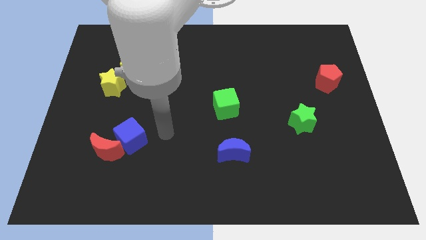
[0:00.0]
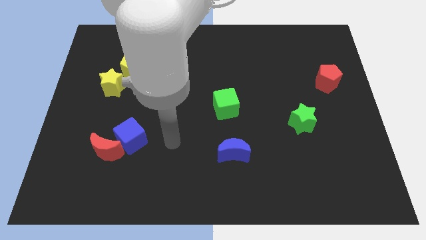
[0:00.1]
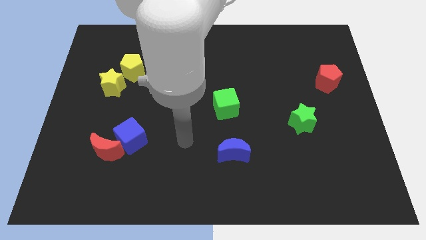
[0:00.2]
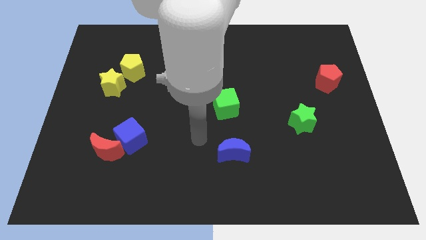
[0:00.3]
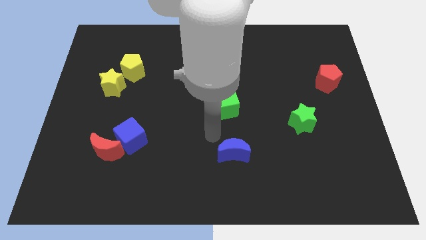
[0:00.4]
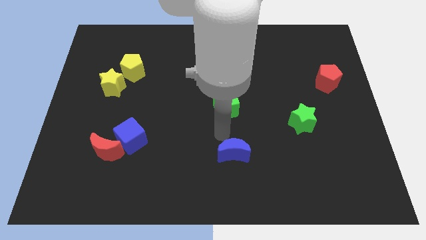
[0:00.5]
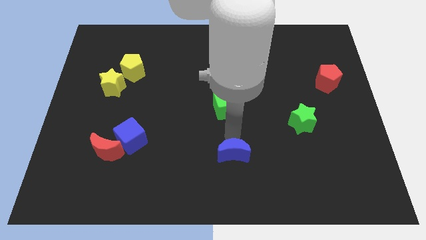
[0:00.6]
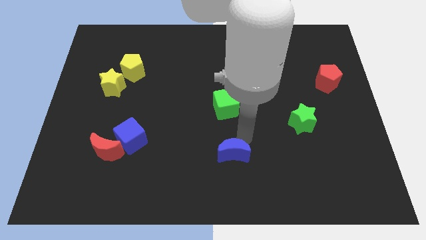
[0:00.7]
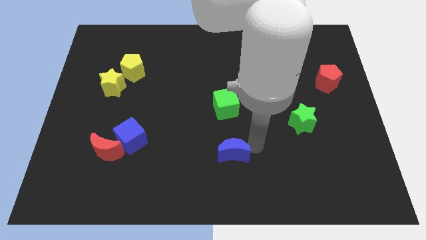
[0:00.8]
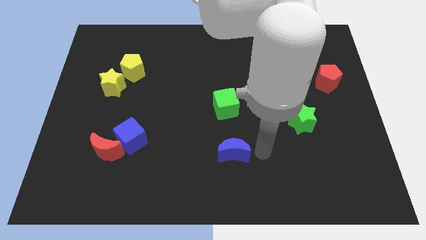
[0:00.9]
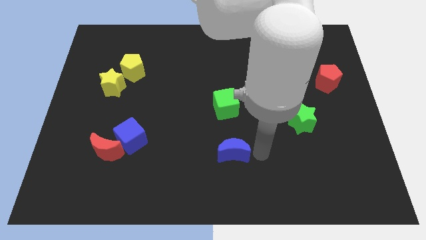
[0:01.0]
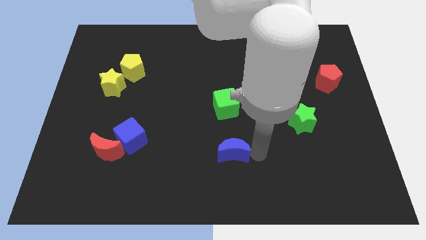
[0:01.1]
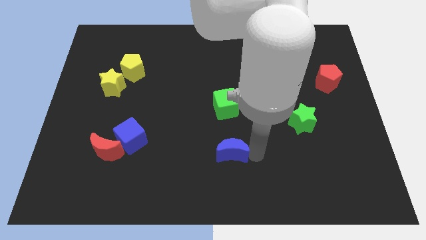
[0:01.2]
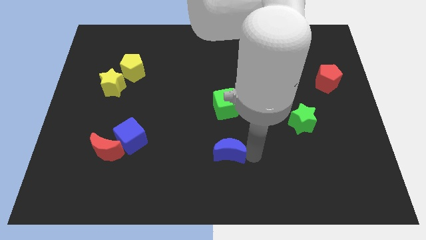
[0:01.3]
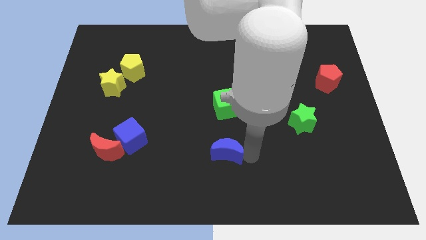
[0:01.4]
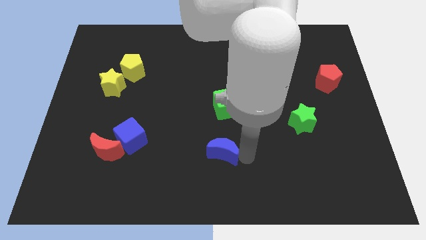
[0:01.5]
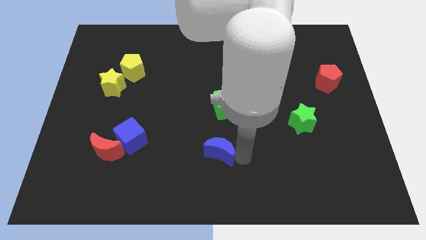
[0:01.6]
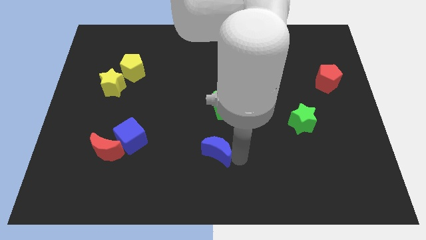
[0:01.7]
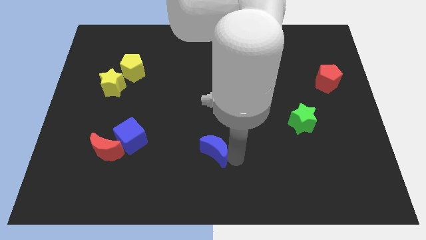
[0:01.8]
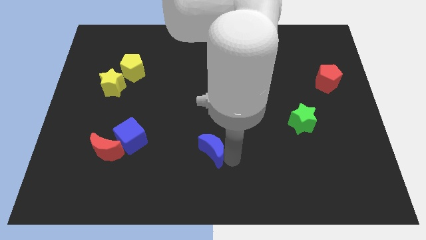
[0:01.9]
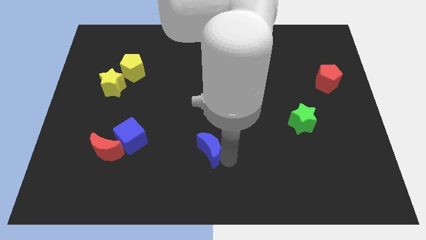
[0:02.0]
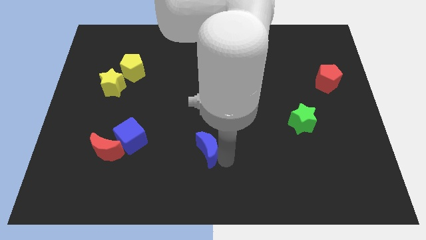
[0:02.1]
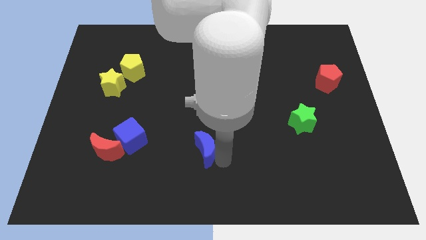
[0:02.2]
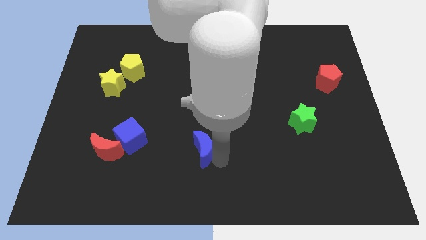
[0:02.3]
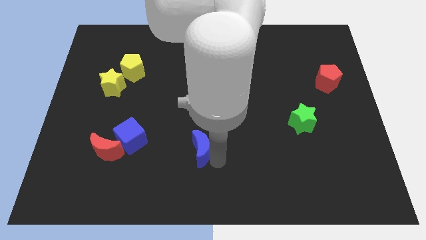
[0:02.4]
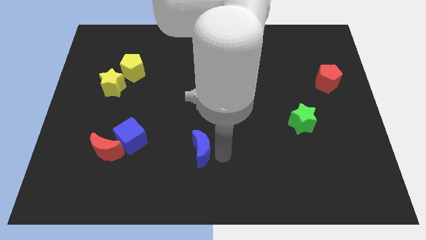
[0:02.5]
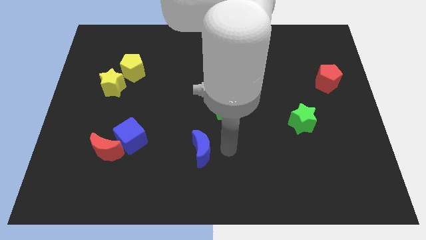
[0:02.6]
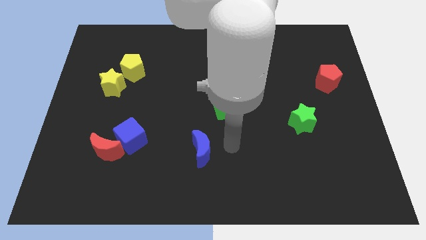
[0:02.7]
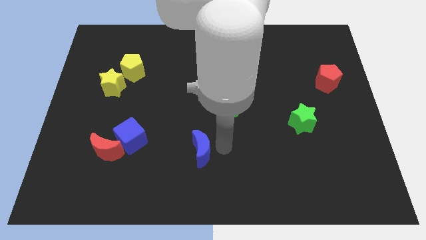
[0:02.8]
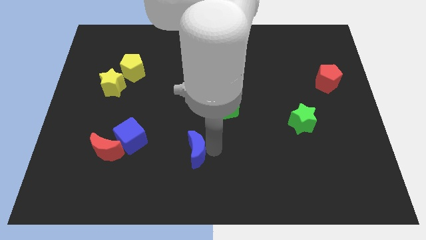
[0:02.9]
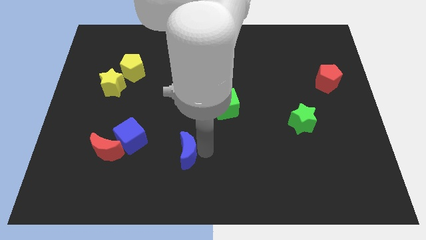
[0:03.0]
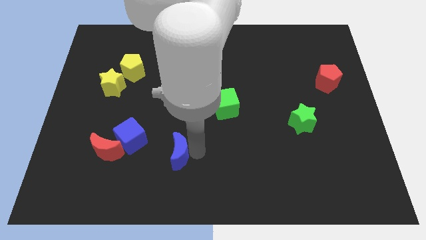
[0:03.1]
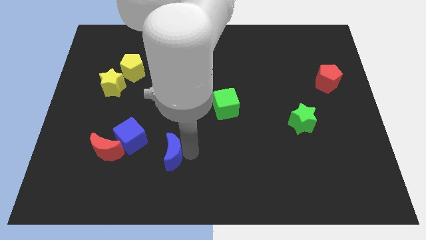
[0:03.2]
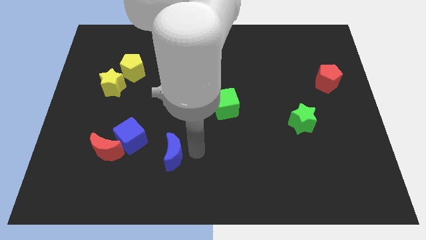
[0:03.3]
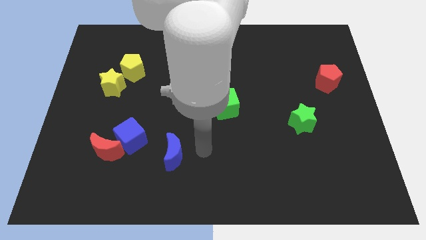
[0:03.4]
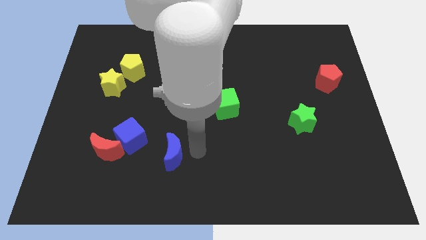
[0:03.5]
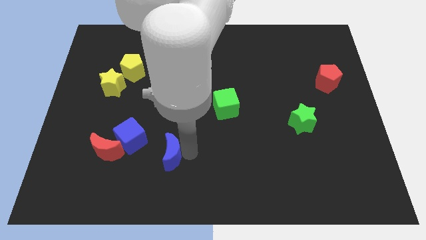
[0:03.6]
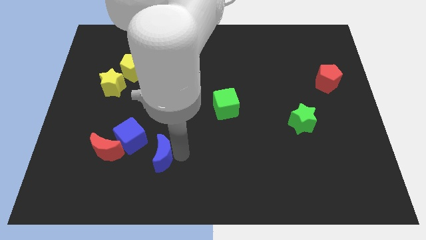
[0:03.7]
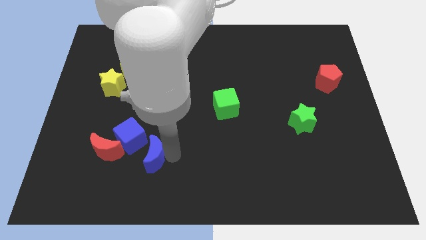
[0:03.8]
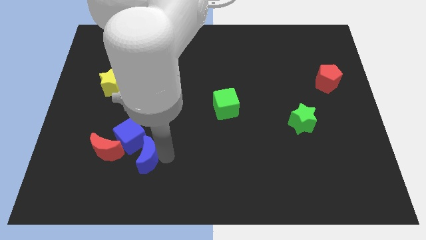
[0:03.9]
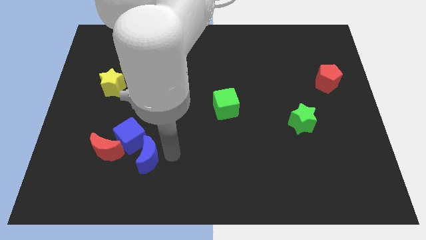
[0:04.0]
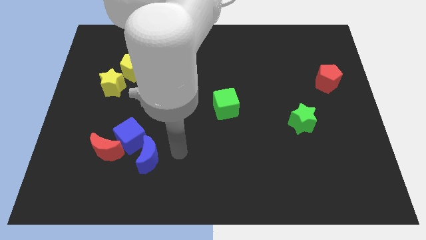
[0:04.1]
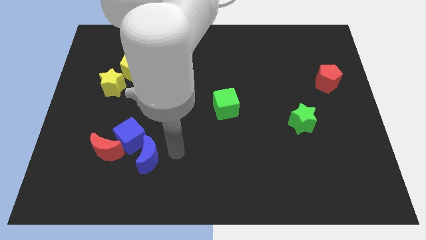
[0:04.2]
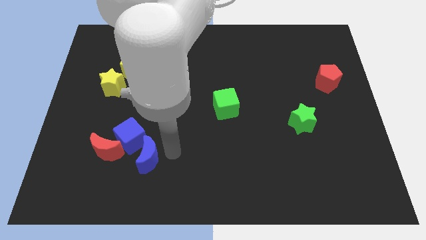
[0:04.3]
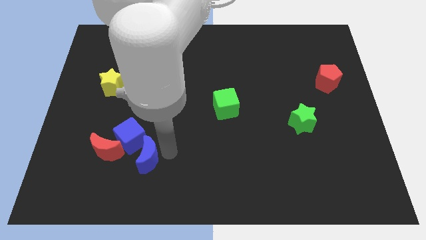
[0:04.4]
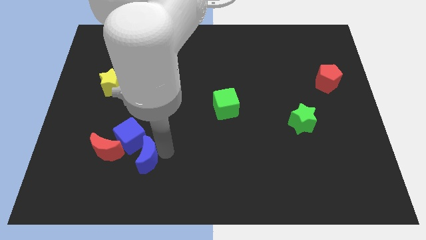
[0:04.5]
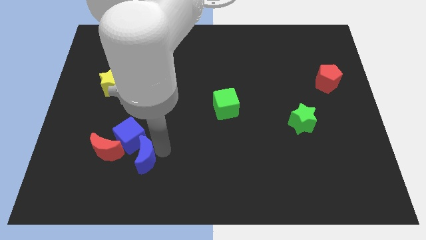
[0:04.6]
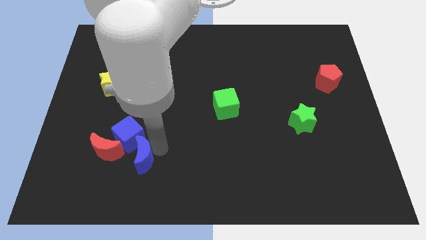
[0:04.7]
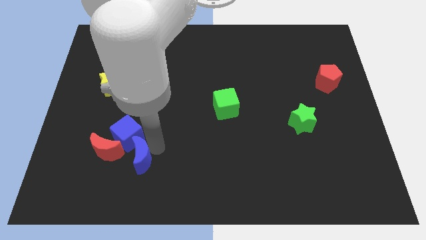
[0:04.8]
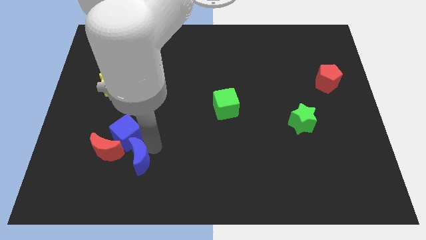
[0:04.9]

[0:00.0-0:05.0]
push the blue moon left

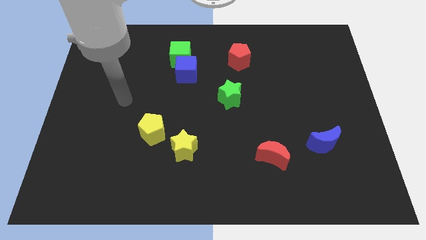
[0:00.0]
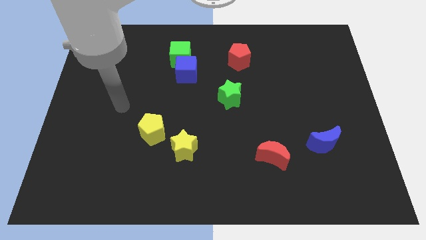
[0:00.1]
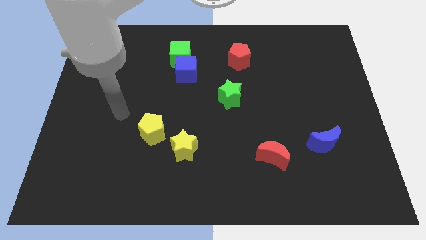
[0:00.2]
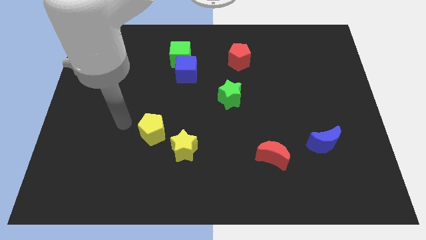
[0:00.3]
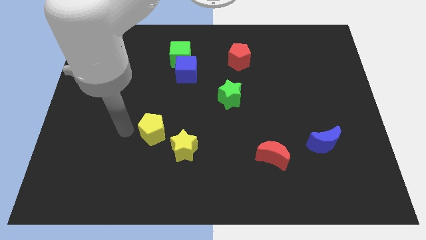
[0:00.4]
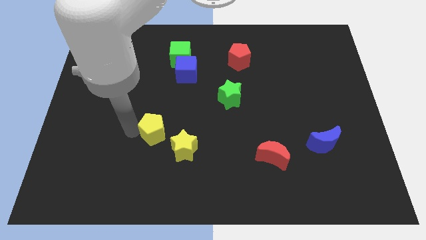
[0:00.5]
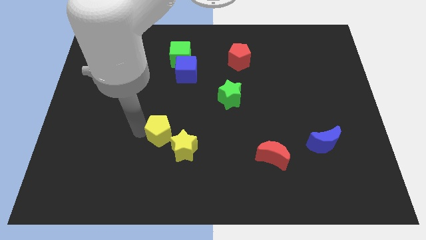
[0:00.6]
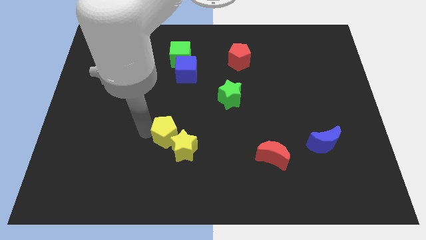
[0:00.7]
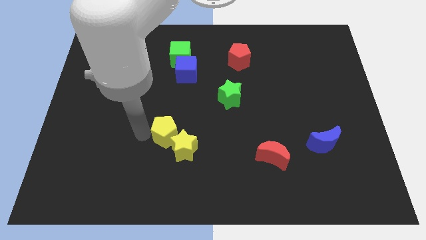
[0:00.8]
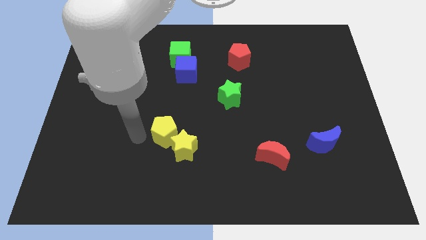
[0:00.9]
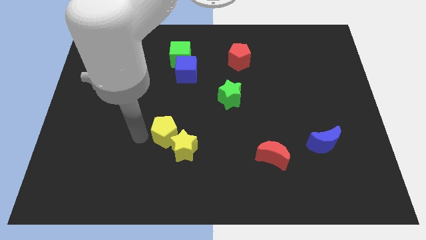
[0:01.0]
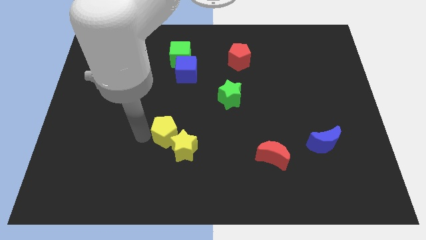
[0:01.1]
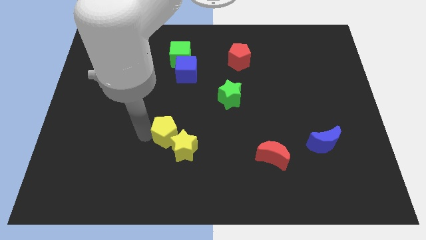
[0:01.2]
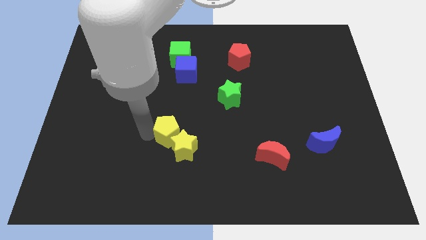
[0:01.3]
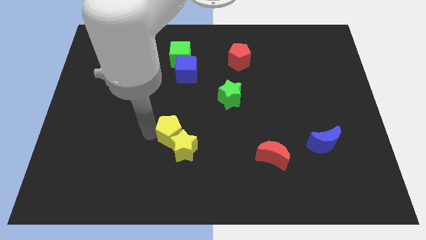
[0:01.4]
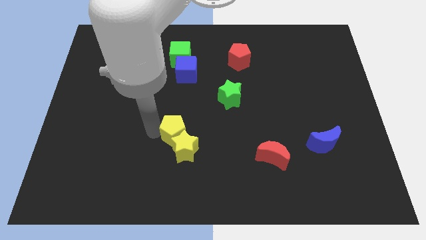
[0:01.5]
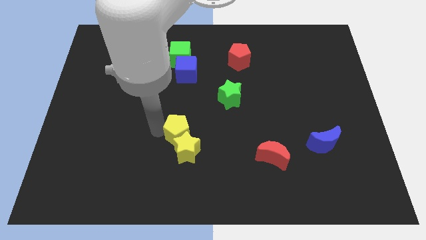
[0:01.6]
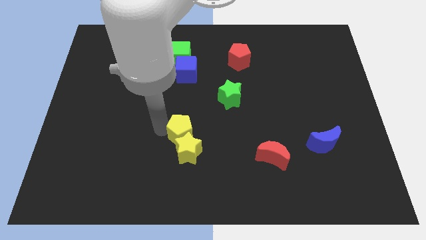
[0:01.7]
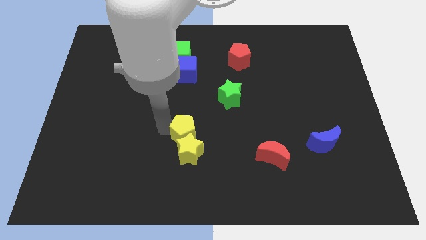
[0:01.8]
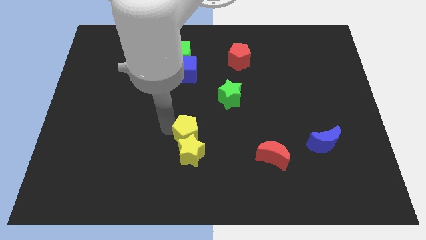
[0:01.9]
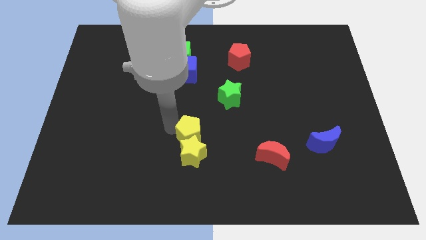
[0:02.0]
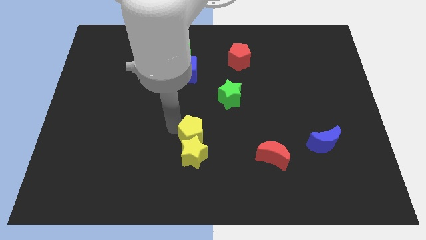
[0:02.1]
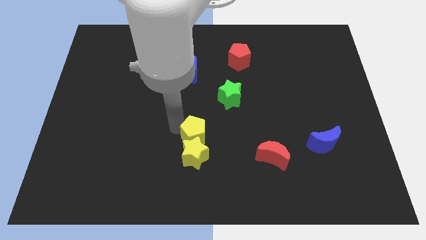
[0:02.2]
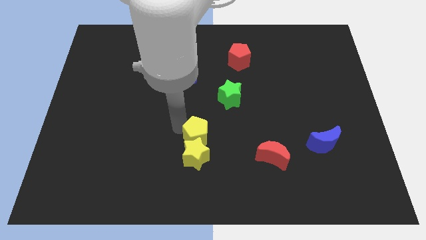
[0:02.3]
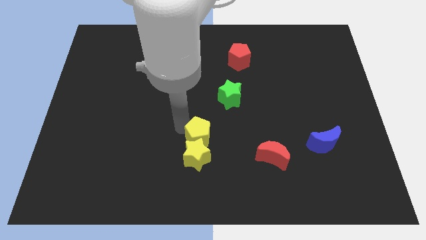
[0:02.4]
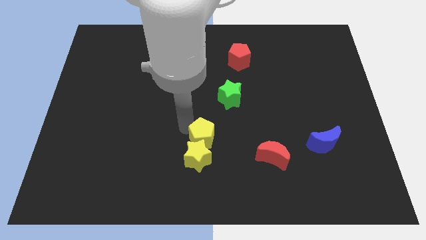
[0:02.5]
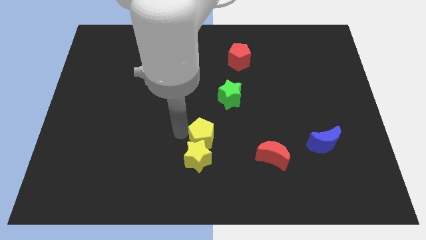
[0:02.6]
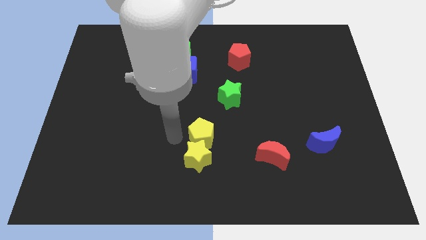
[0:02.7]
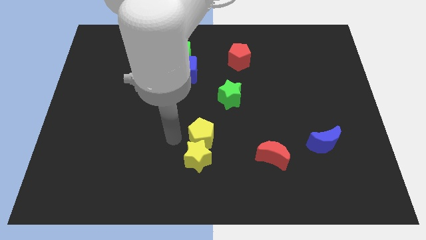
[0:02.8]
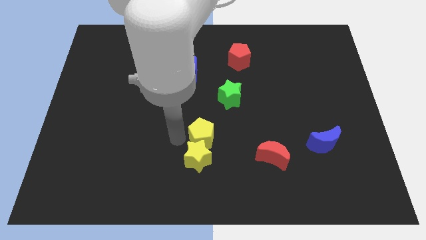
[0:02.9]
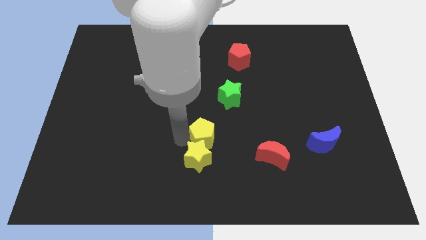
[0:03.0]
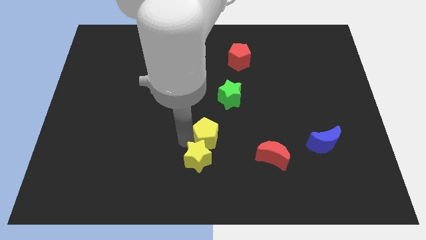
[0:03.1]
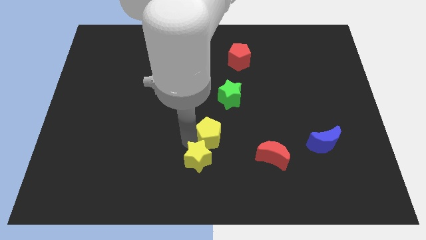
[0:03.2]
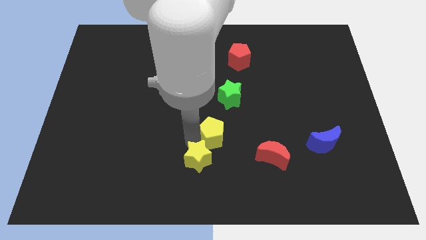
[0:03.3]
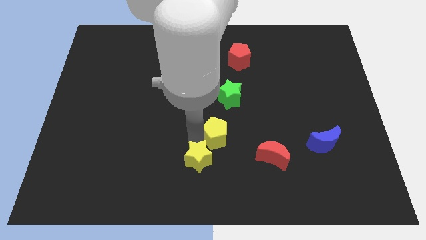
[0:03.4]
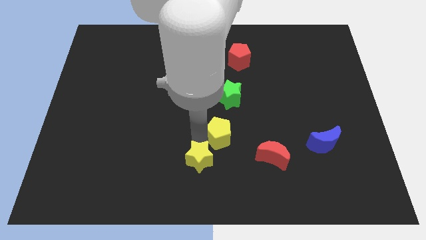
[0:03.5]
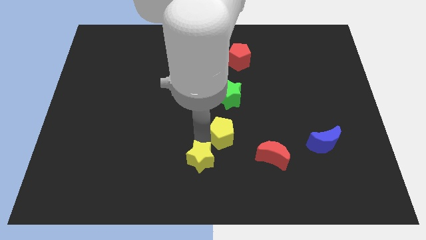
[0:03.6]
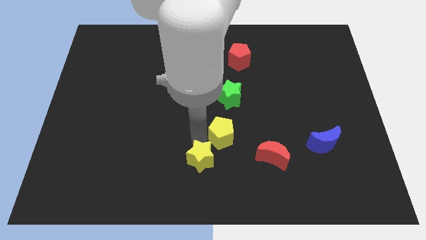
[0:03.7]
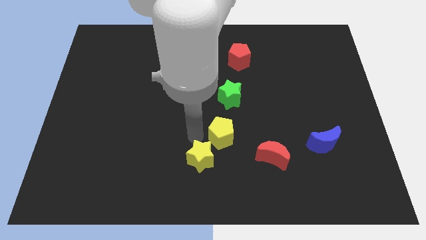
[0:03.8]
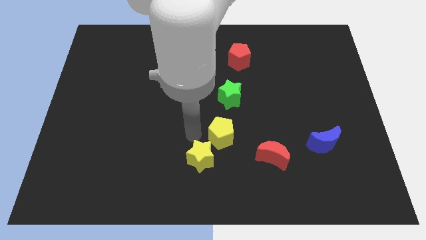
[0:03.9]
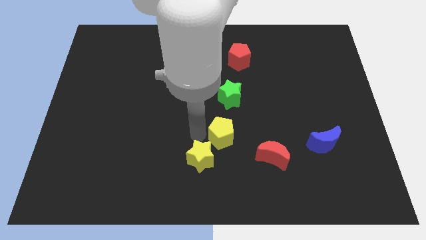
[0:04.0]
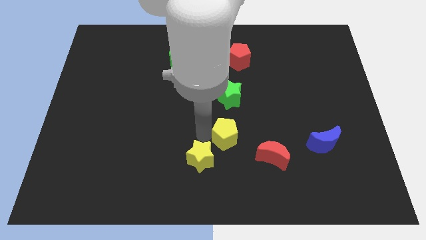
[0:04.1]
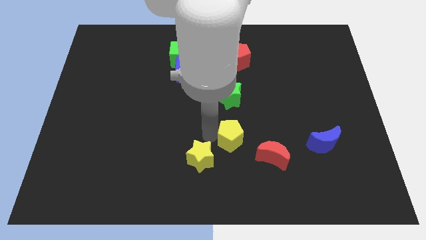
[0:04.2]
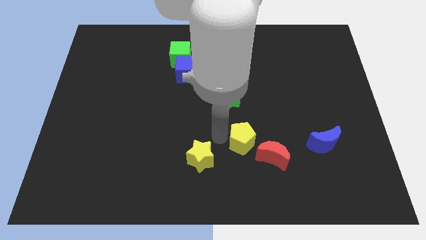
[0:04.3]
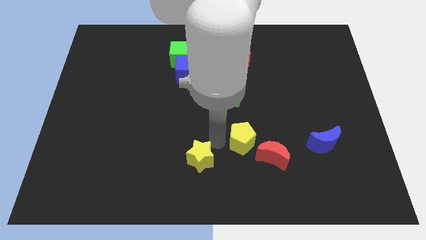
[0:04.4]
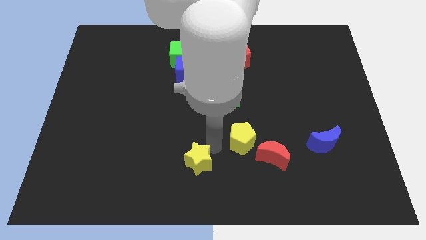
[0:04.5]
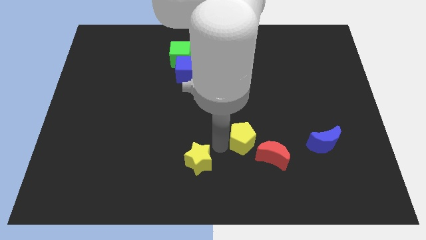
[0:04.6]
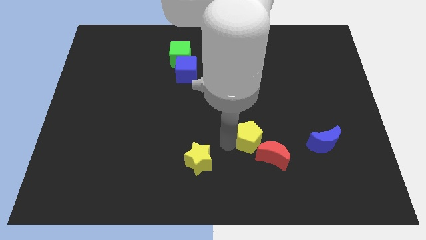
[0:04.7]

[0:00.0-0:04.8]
push the yellow pentagon to the right
